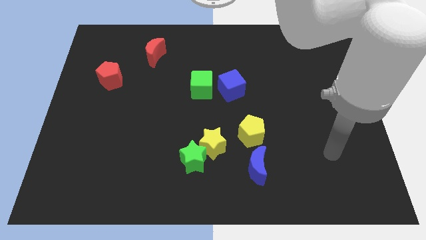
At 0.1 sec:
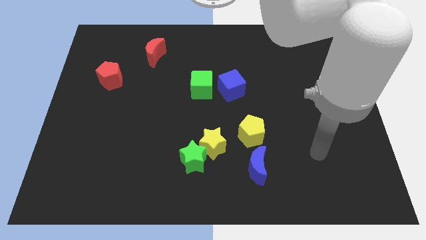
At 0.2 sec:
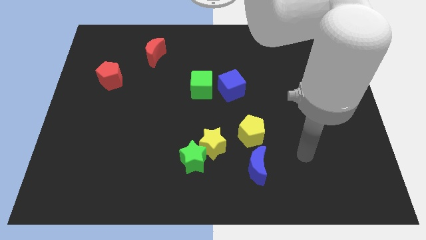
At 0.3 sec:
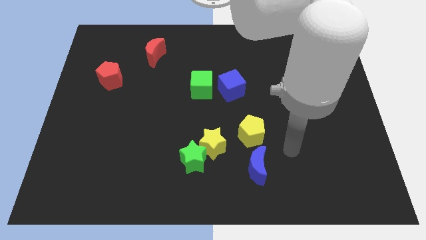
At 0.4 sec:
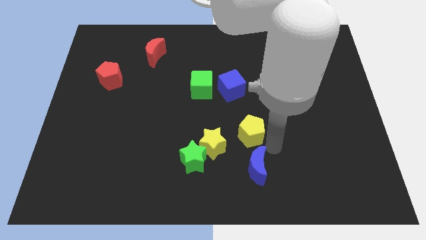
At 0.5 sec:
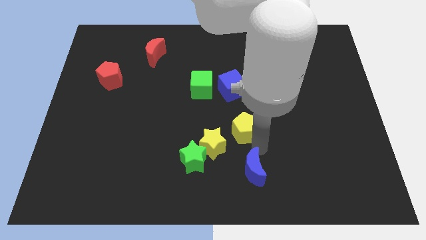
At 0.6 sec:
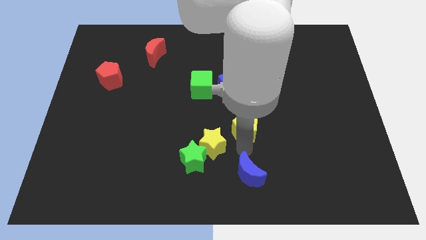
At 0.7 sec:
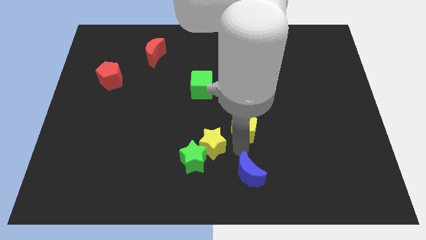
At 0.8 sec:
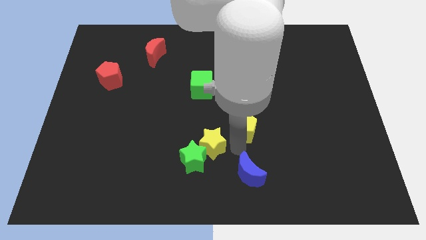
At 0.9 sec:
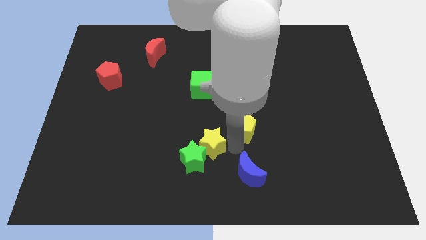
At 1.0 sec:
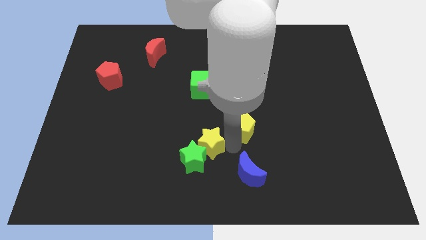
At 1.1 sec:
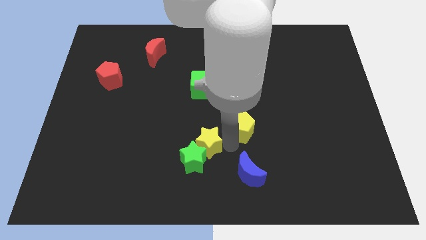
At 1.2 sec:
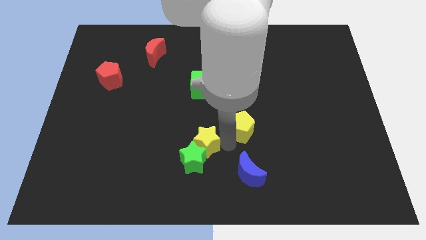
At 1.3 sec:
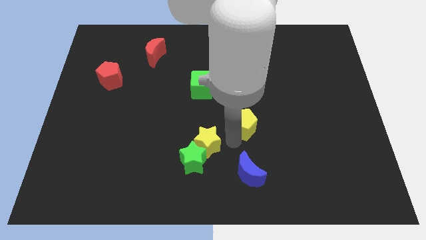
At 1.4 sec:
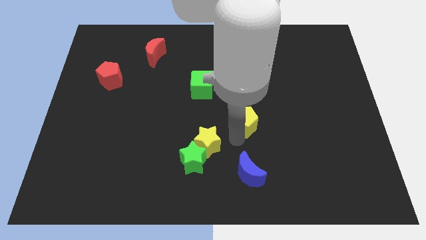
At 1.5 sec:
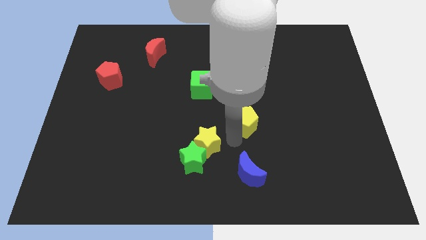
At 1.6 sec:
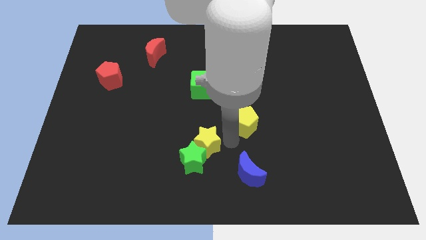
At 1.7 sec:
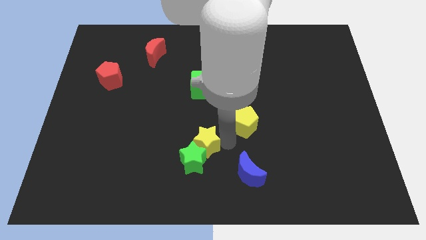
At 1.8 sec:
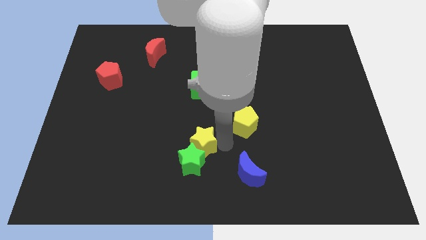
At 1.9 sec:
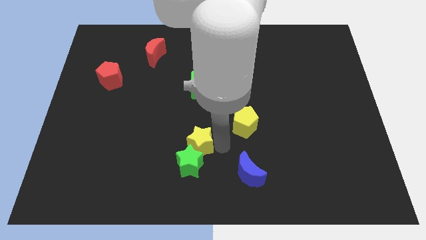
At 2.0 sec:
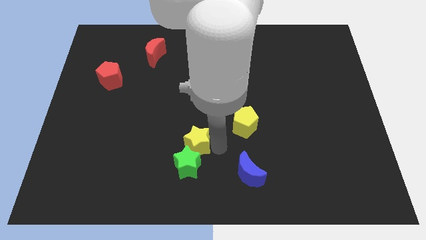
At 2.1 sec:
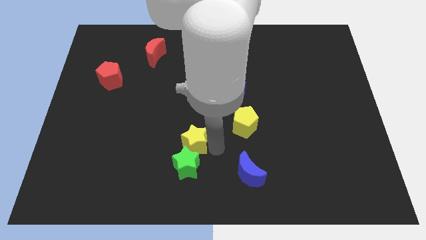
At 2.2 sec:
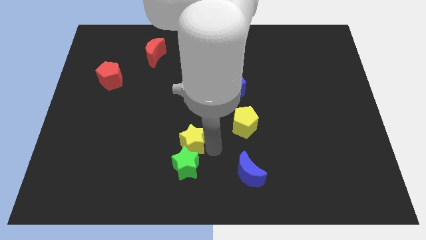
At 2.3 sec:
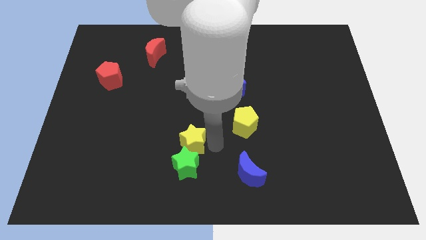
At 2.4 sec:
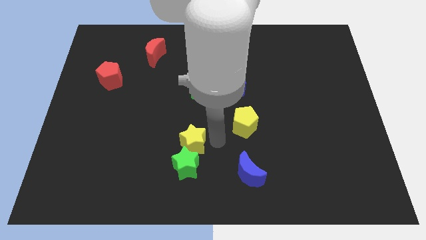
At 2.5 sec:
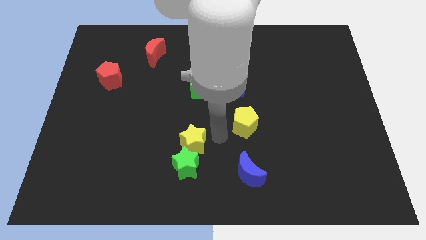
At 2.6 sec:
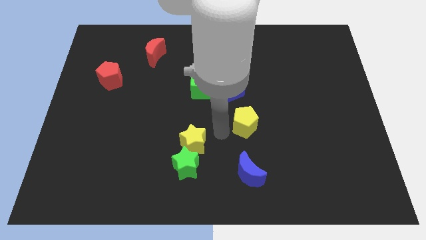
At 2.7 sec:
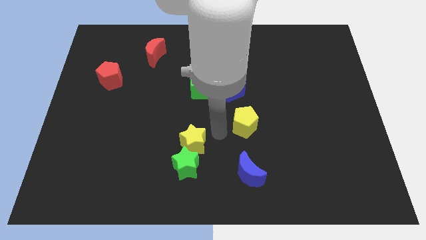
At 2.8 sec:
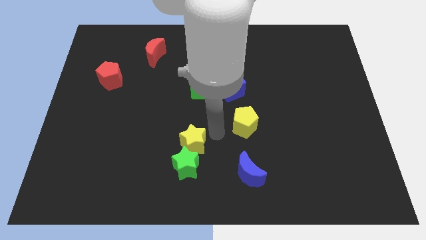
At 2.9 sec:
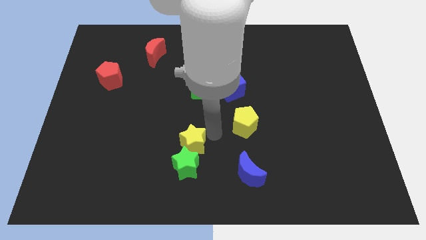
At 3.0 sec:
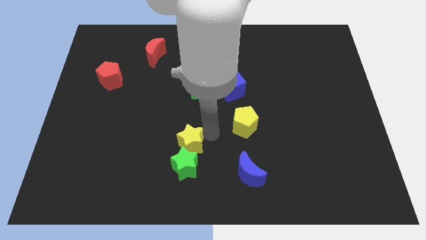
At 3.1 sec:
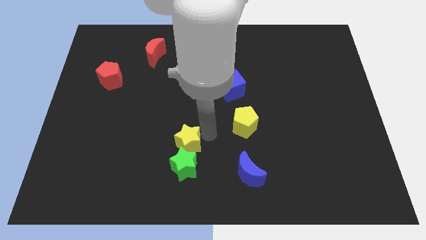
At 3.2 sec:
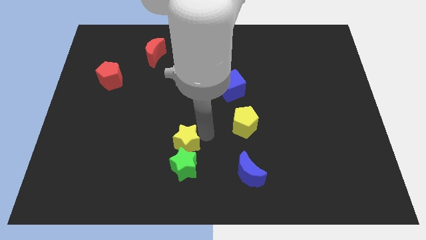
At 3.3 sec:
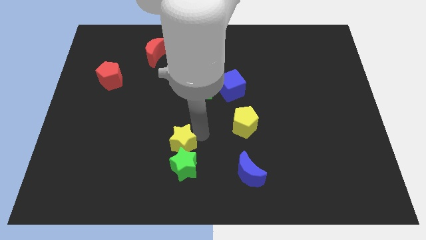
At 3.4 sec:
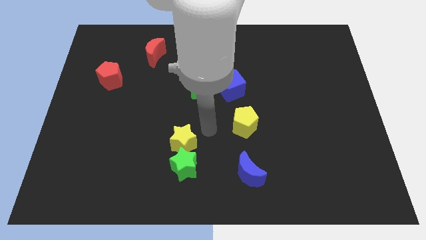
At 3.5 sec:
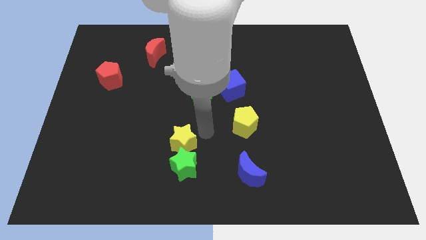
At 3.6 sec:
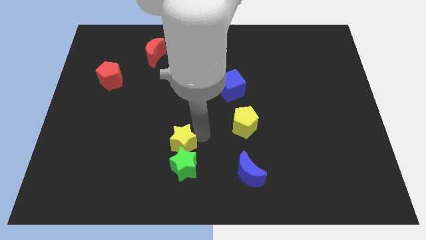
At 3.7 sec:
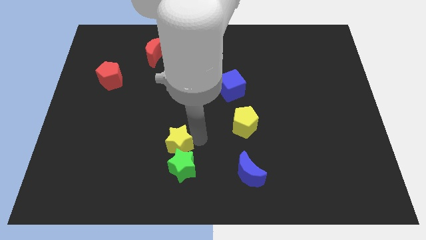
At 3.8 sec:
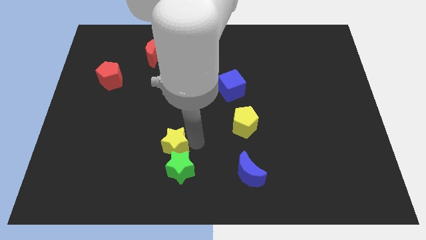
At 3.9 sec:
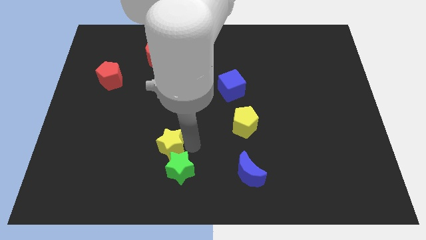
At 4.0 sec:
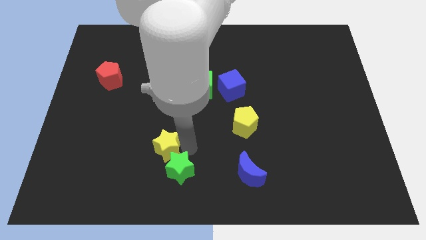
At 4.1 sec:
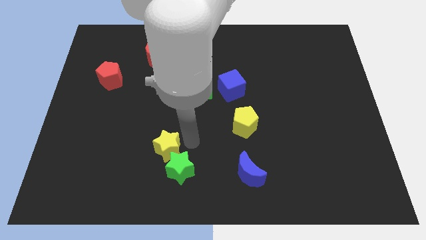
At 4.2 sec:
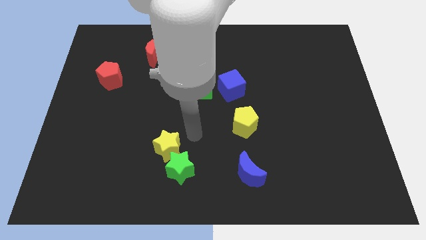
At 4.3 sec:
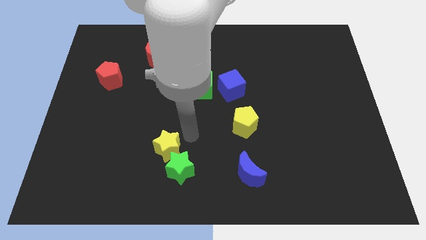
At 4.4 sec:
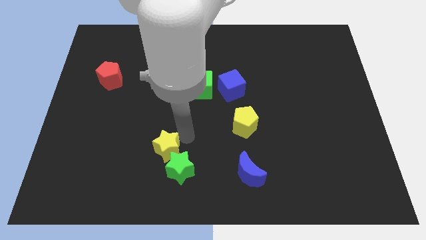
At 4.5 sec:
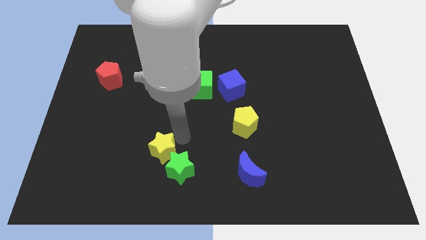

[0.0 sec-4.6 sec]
move the yellow star just left of the green star

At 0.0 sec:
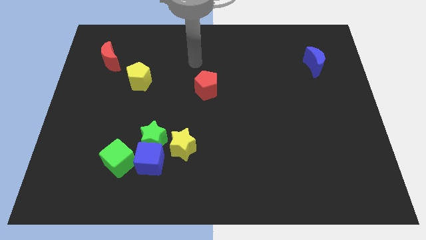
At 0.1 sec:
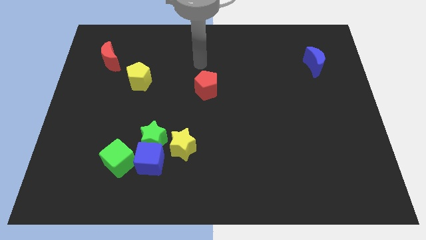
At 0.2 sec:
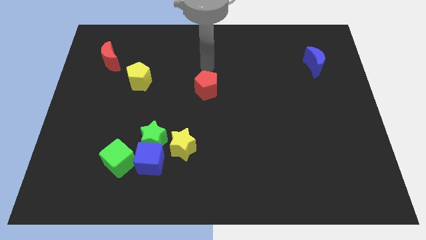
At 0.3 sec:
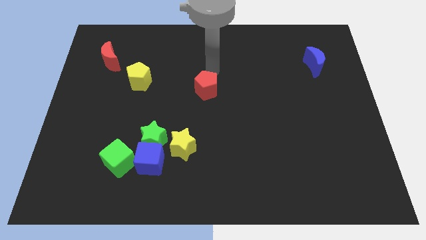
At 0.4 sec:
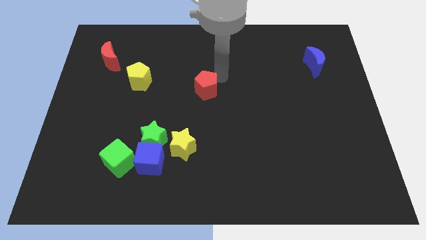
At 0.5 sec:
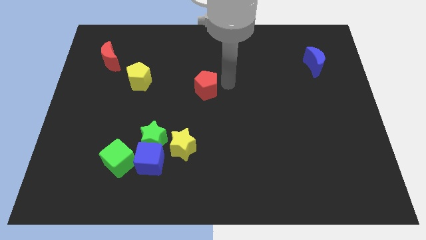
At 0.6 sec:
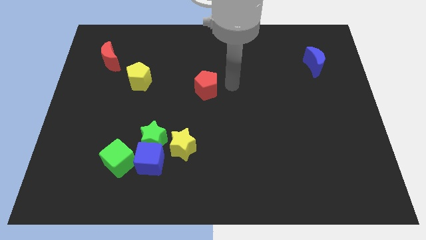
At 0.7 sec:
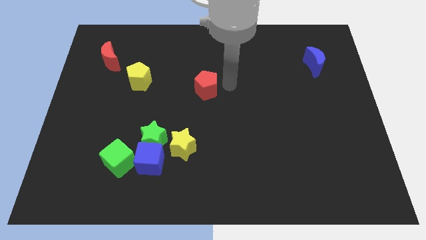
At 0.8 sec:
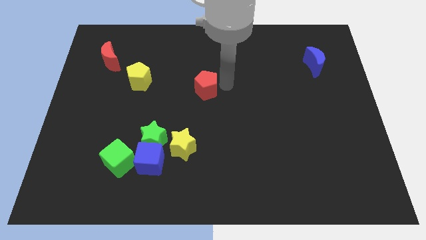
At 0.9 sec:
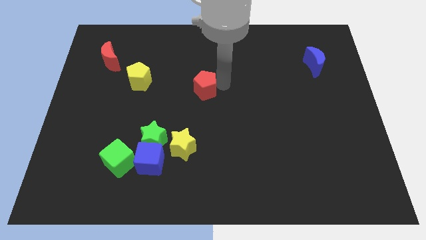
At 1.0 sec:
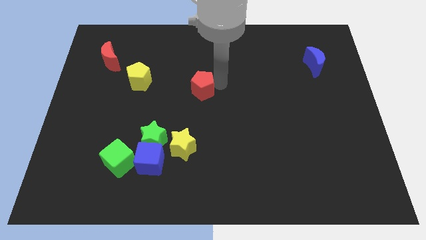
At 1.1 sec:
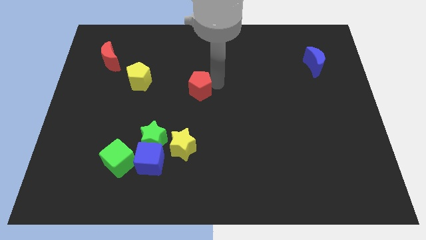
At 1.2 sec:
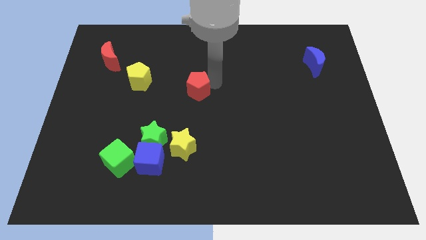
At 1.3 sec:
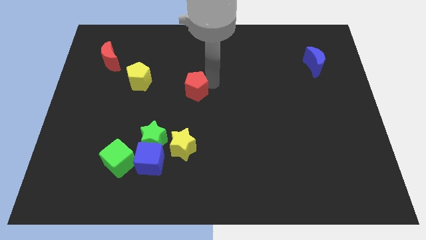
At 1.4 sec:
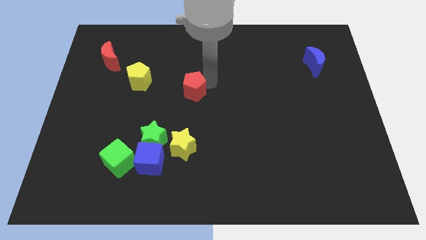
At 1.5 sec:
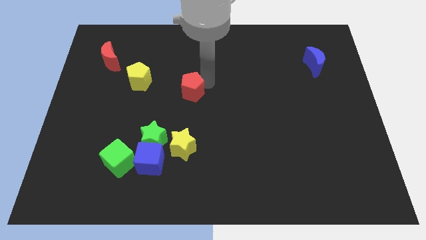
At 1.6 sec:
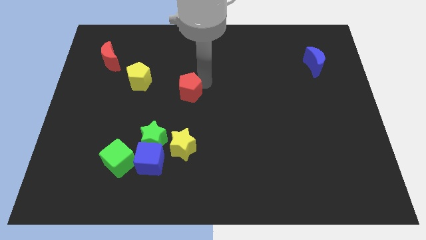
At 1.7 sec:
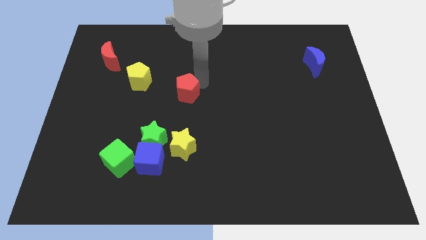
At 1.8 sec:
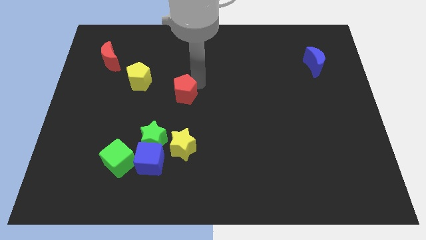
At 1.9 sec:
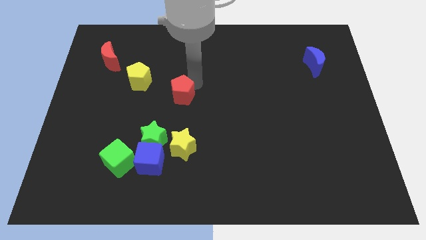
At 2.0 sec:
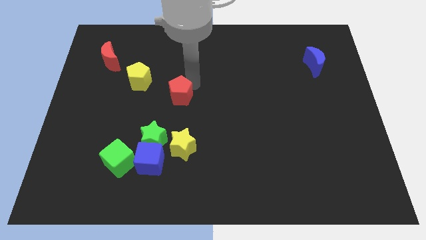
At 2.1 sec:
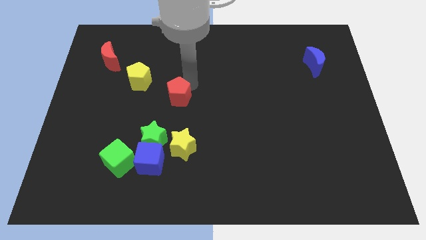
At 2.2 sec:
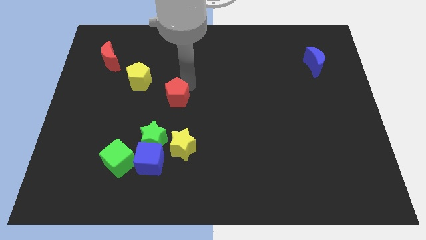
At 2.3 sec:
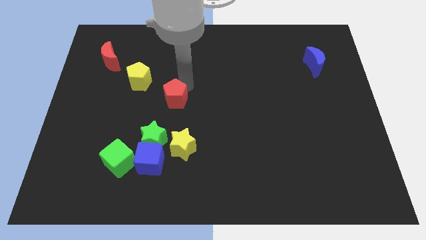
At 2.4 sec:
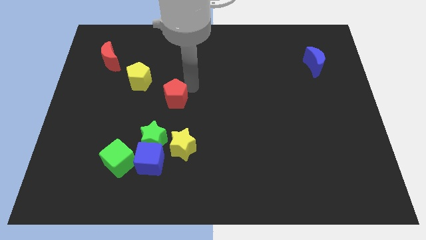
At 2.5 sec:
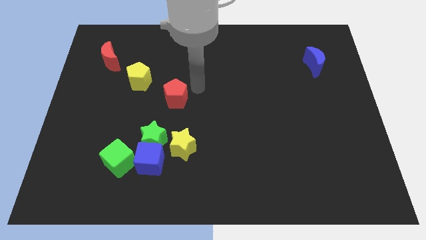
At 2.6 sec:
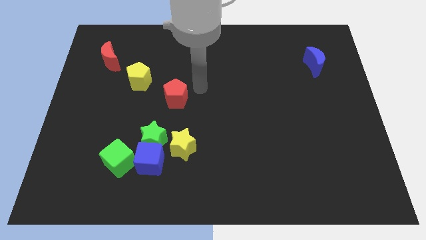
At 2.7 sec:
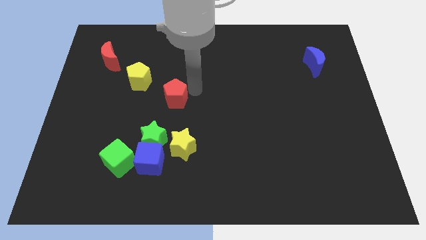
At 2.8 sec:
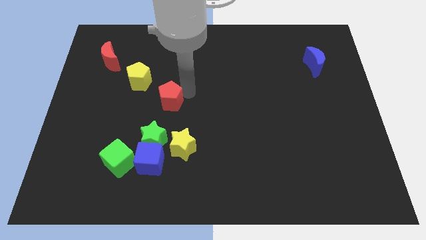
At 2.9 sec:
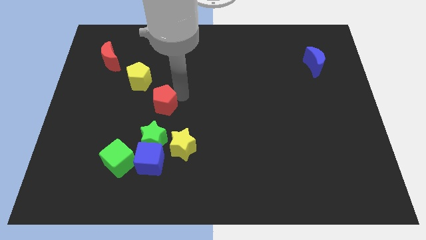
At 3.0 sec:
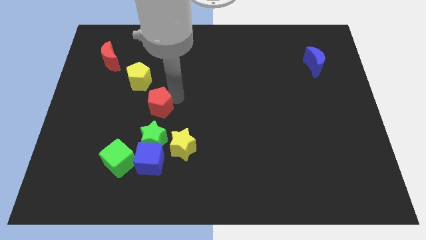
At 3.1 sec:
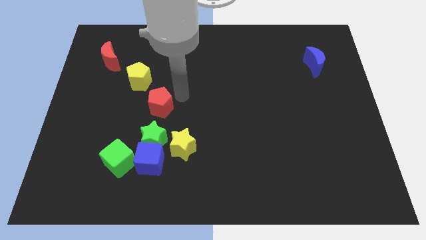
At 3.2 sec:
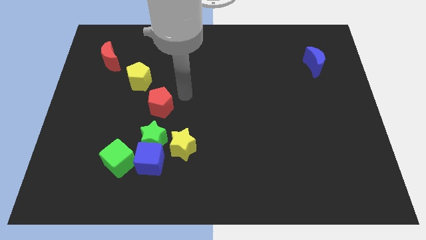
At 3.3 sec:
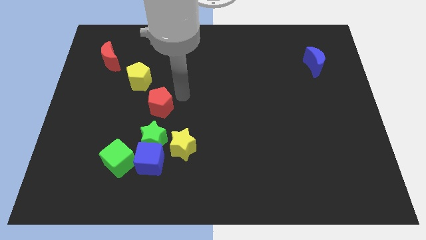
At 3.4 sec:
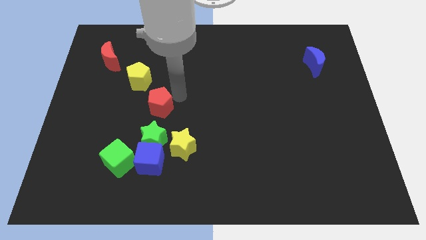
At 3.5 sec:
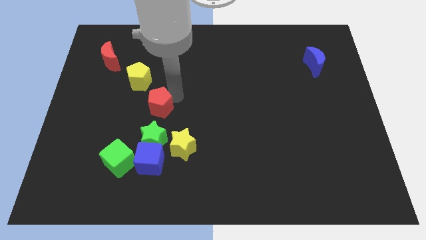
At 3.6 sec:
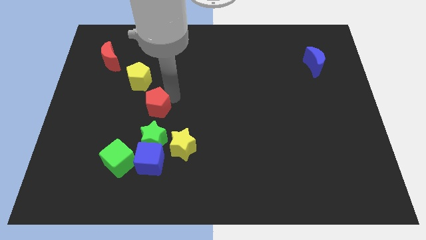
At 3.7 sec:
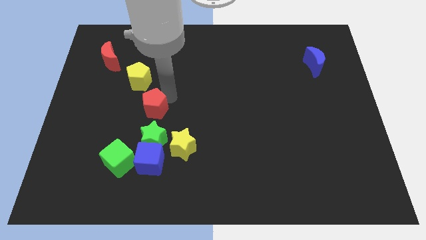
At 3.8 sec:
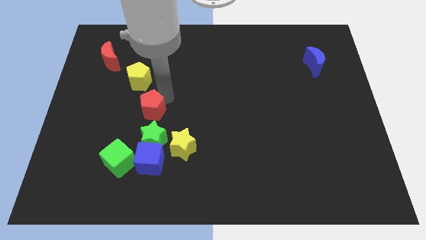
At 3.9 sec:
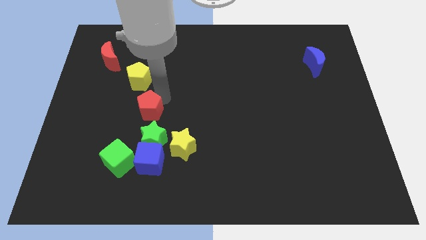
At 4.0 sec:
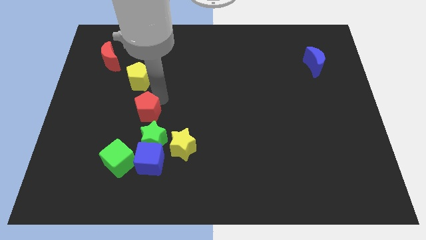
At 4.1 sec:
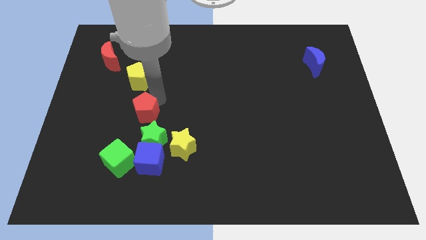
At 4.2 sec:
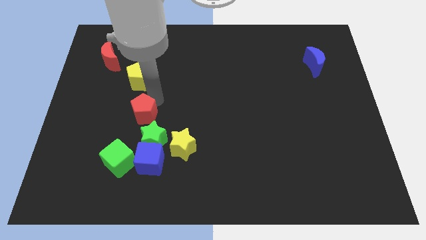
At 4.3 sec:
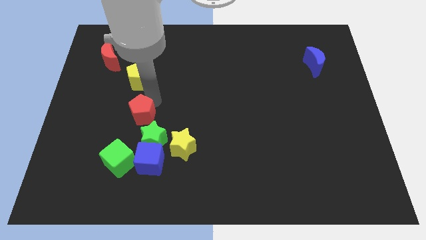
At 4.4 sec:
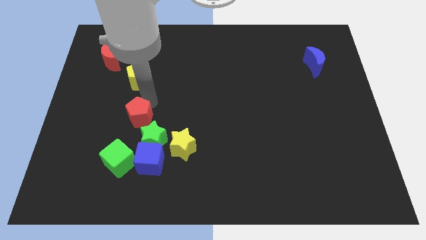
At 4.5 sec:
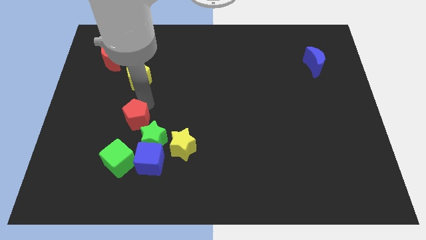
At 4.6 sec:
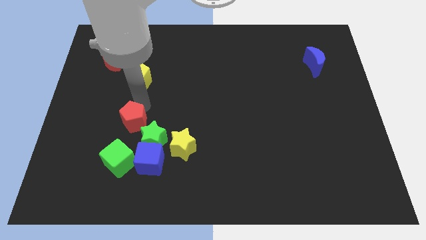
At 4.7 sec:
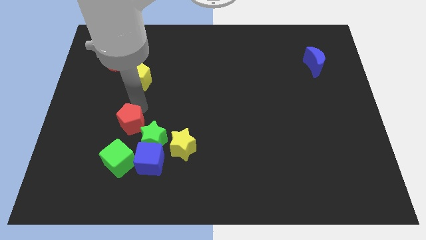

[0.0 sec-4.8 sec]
move the red pentagon to the left side of the green star
